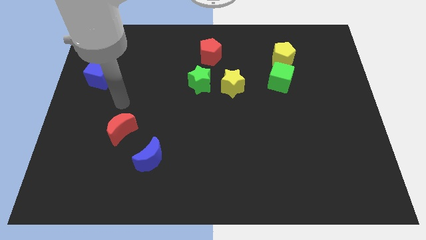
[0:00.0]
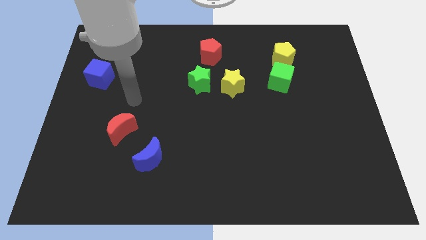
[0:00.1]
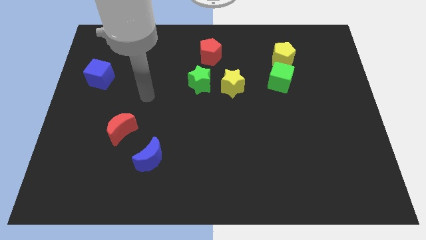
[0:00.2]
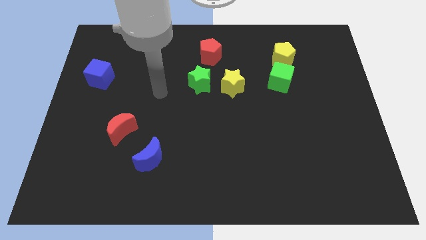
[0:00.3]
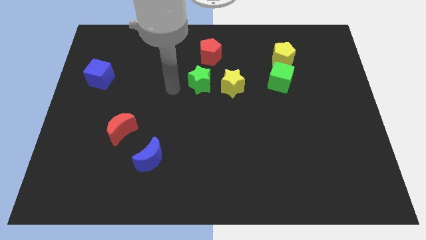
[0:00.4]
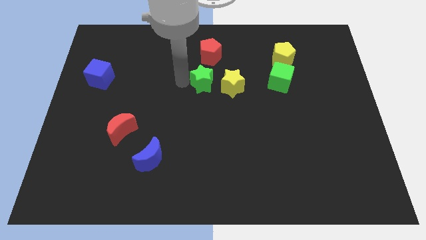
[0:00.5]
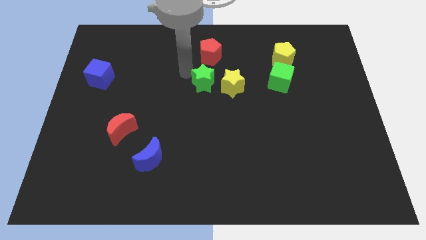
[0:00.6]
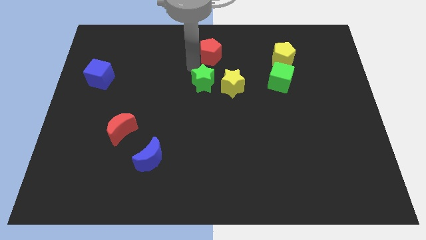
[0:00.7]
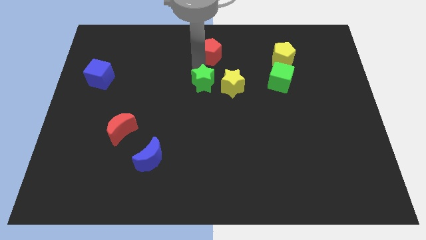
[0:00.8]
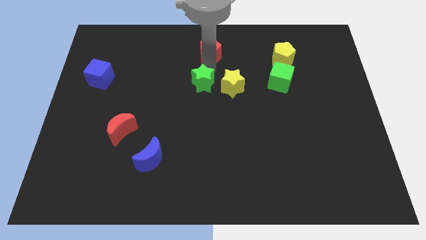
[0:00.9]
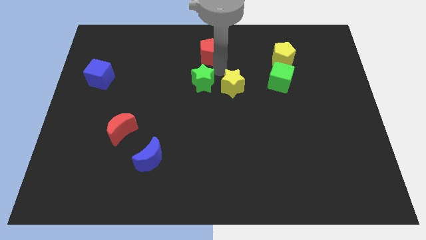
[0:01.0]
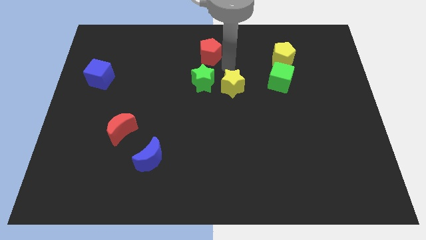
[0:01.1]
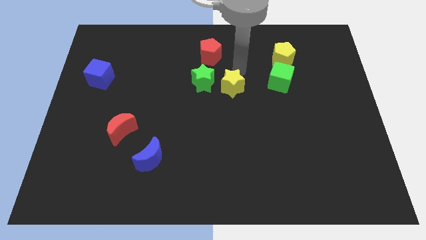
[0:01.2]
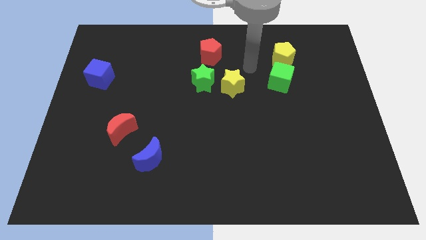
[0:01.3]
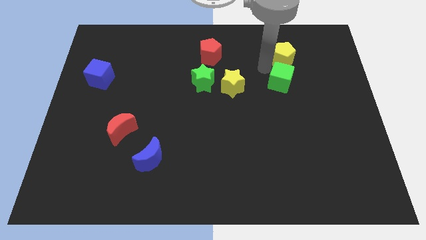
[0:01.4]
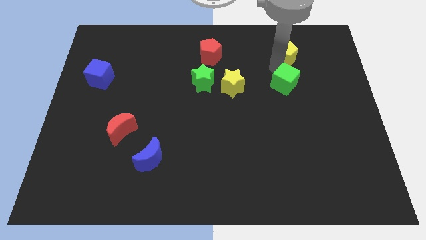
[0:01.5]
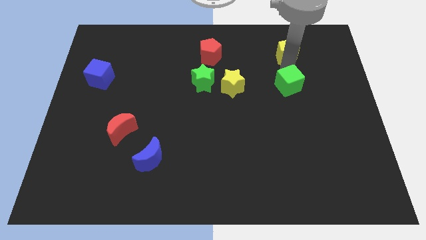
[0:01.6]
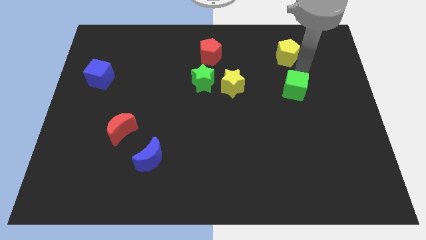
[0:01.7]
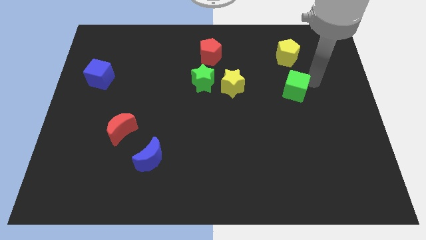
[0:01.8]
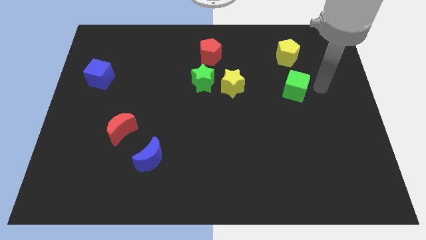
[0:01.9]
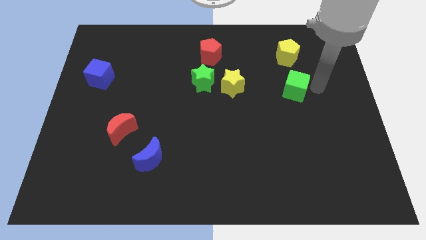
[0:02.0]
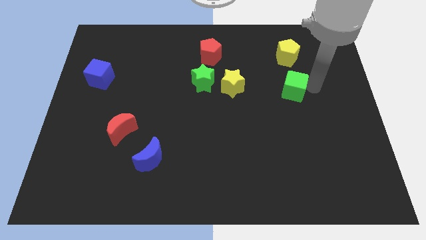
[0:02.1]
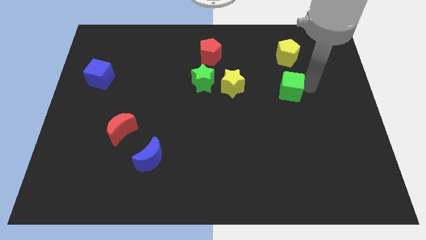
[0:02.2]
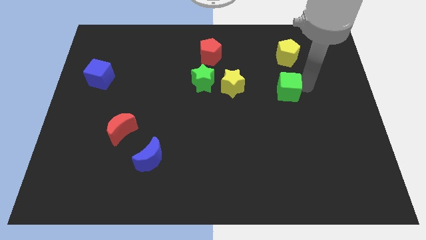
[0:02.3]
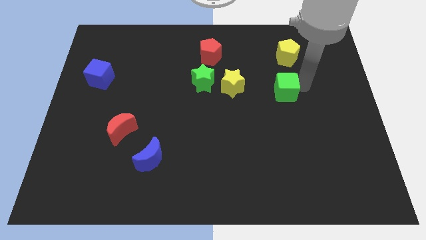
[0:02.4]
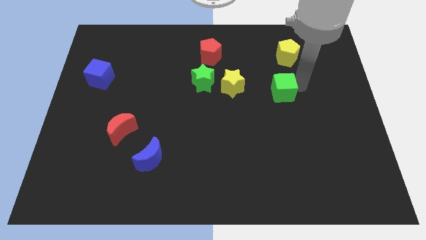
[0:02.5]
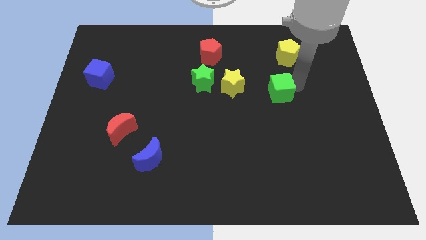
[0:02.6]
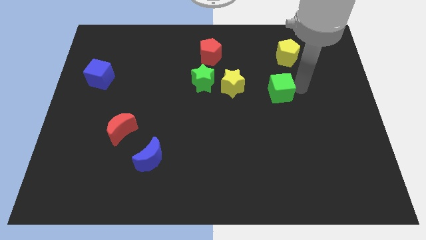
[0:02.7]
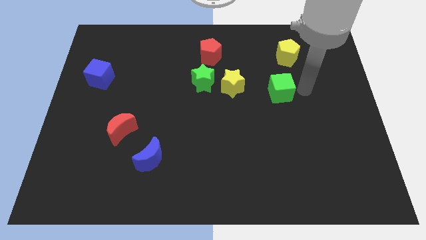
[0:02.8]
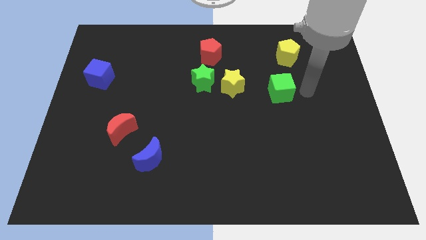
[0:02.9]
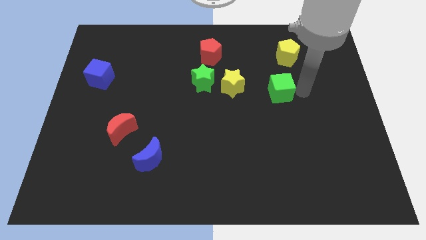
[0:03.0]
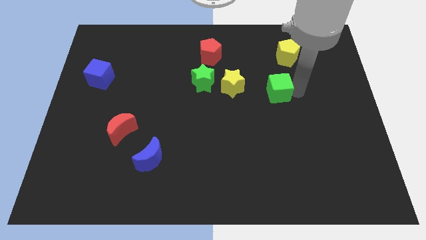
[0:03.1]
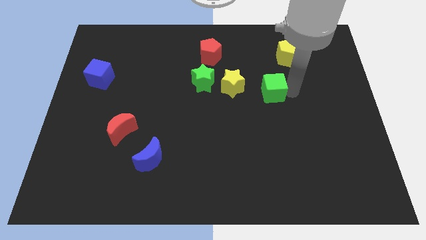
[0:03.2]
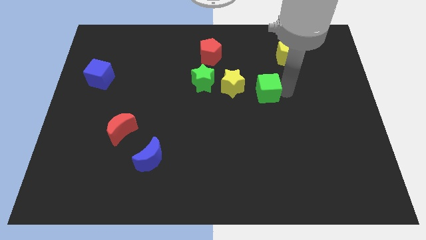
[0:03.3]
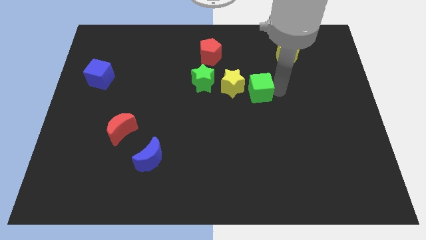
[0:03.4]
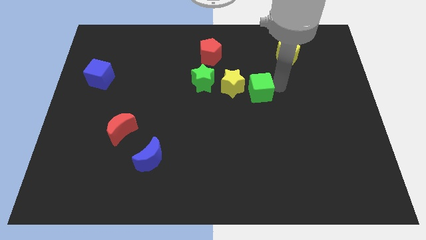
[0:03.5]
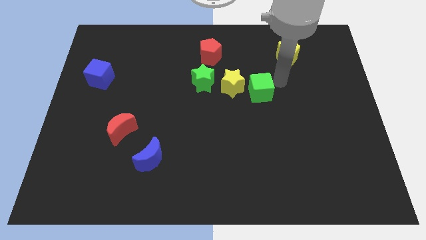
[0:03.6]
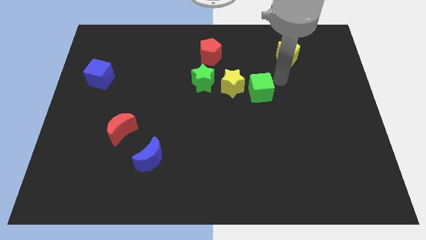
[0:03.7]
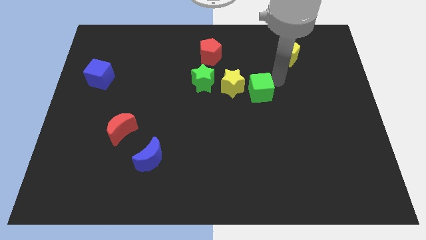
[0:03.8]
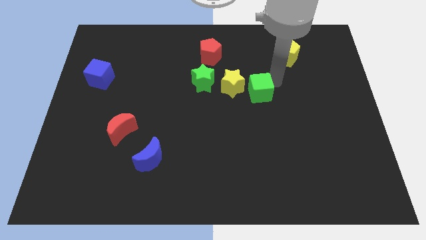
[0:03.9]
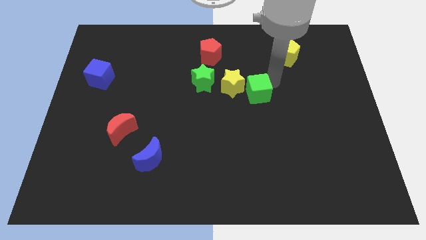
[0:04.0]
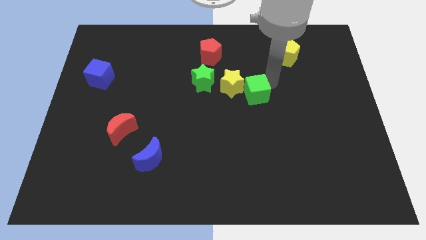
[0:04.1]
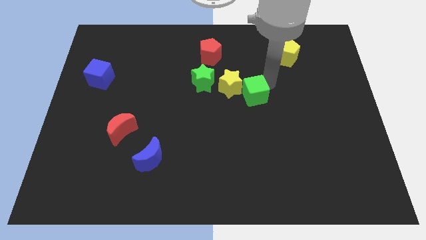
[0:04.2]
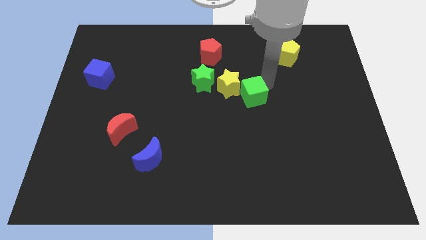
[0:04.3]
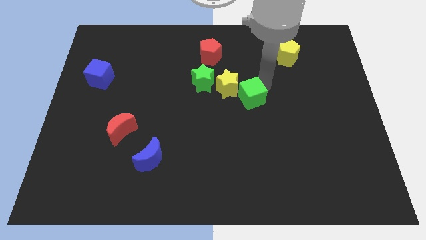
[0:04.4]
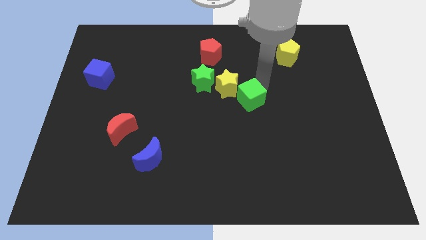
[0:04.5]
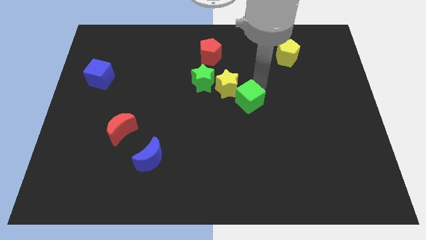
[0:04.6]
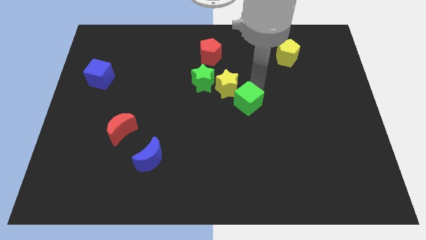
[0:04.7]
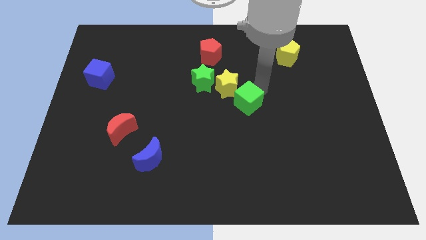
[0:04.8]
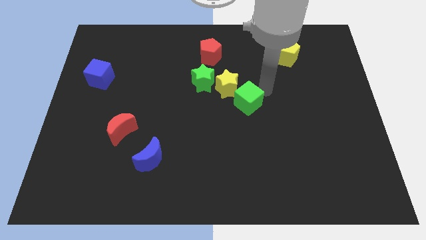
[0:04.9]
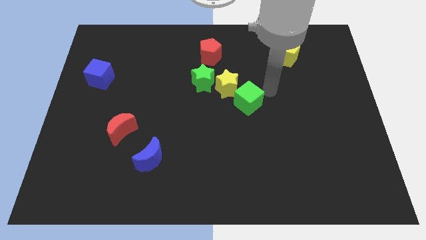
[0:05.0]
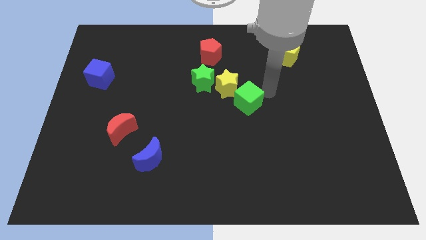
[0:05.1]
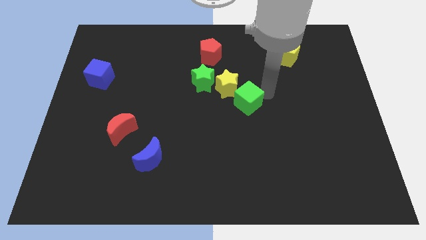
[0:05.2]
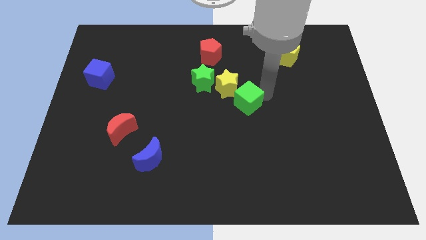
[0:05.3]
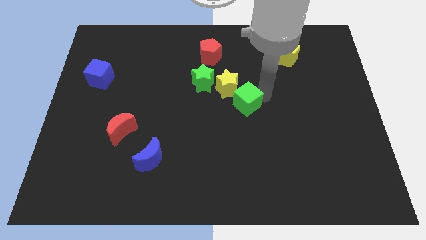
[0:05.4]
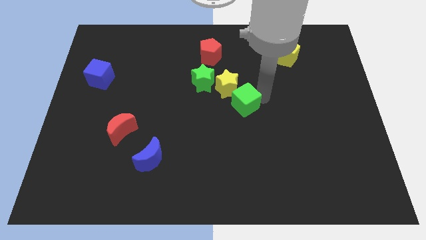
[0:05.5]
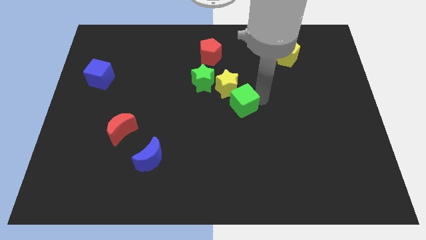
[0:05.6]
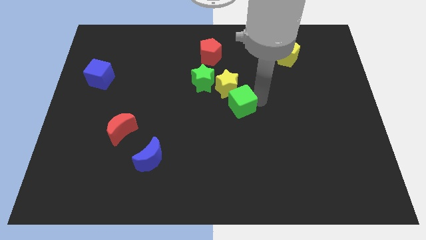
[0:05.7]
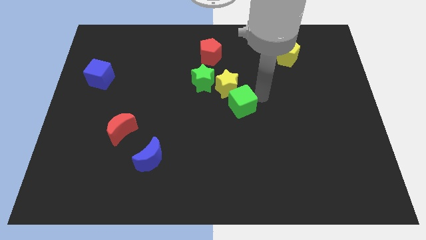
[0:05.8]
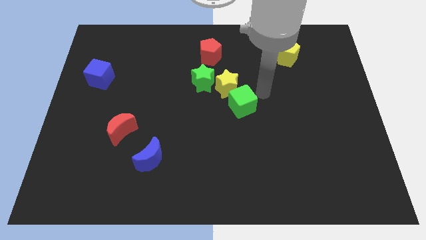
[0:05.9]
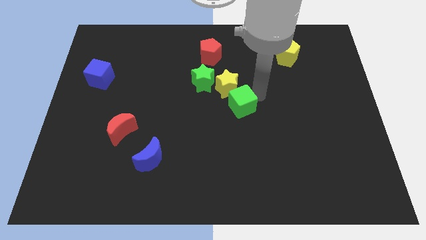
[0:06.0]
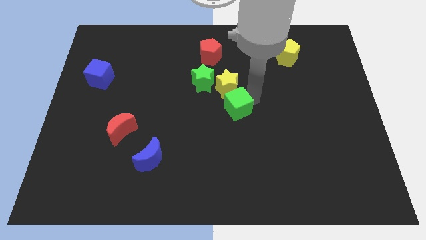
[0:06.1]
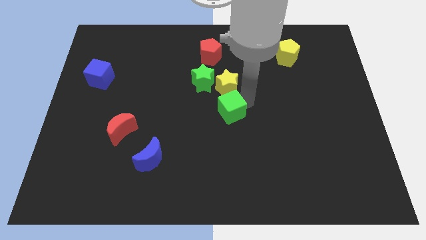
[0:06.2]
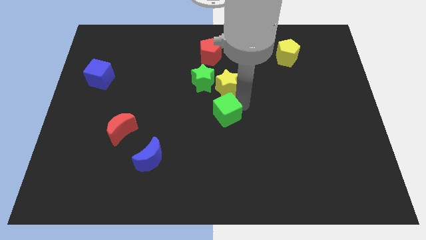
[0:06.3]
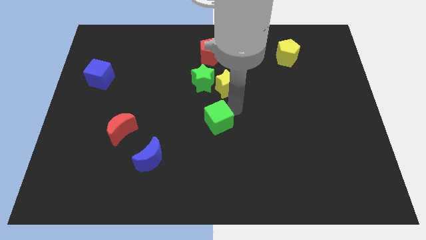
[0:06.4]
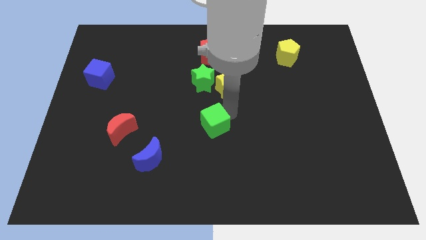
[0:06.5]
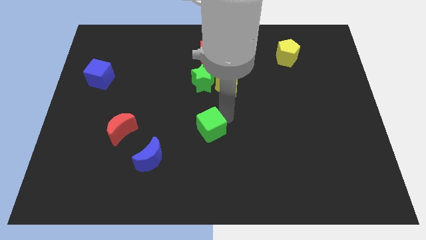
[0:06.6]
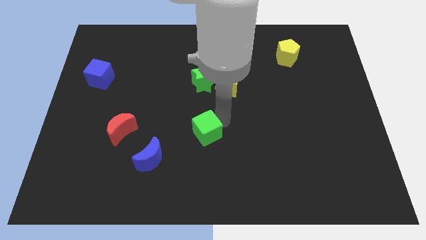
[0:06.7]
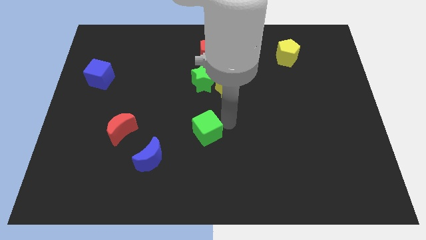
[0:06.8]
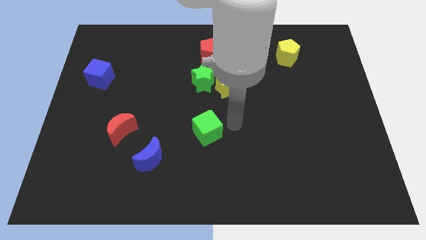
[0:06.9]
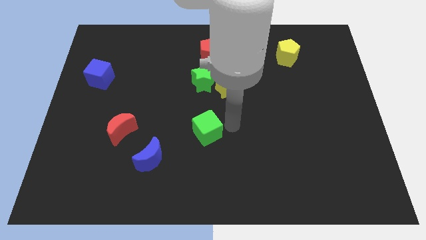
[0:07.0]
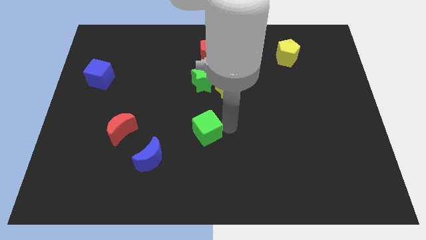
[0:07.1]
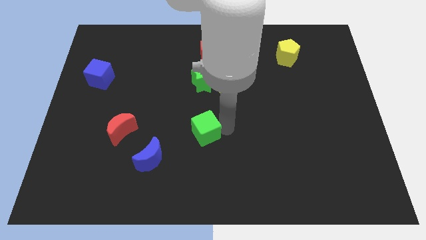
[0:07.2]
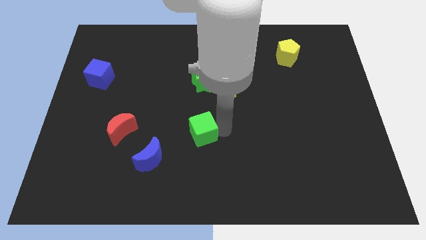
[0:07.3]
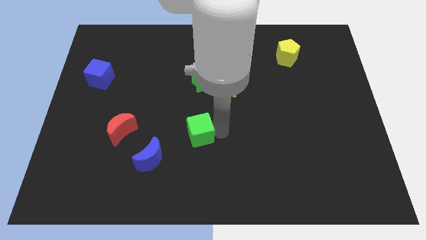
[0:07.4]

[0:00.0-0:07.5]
push the green cube to the top right side of the blue moon
